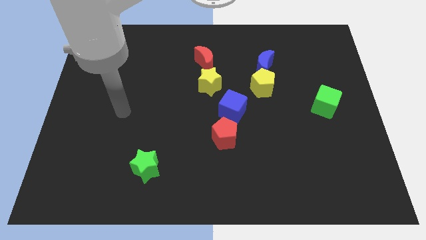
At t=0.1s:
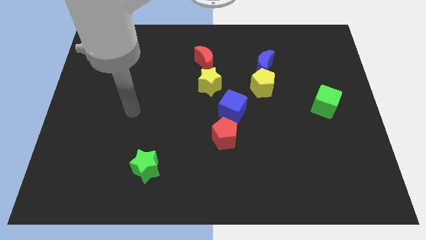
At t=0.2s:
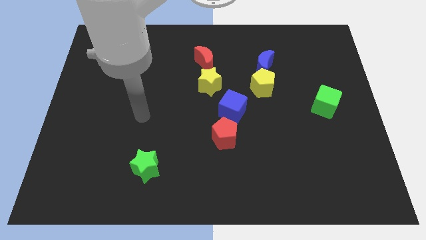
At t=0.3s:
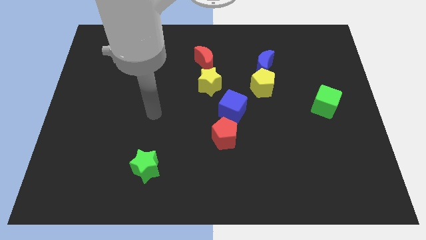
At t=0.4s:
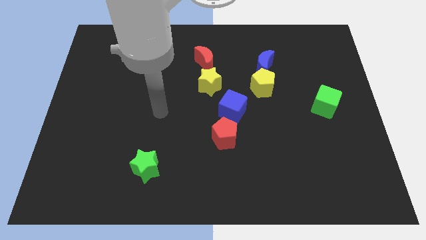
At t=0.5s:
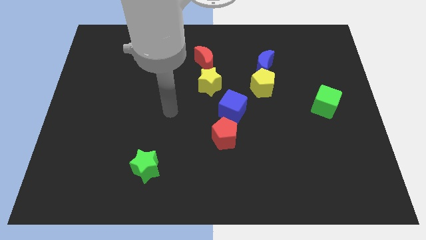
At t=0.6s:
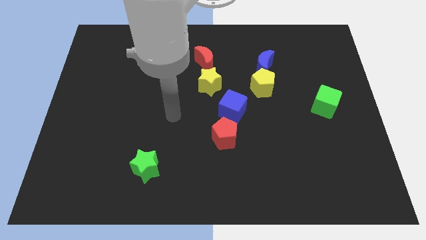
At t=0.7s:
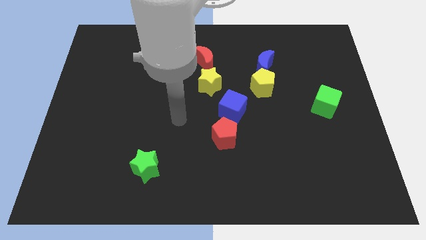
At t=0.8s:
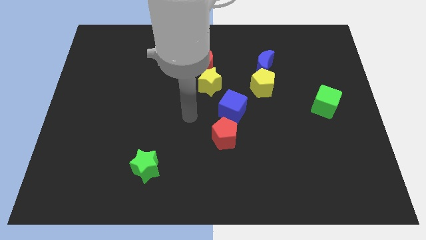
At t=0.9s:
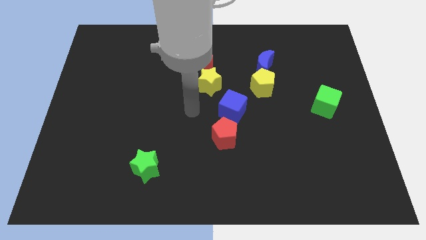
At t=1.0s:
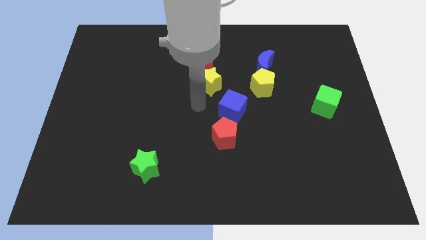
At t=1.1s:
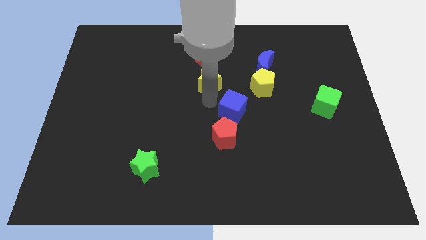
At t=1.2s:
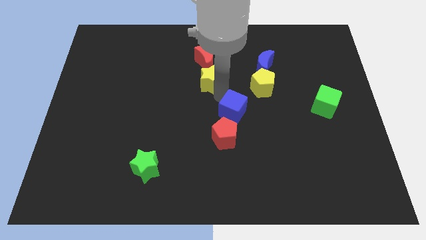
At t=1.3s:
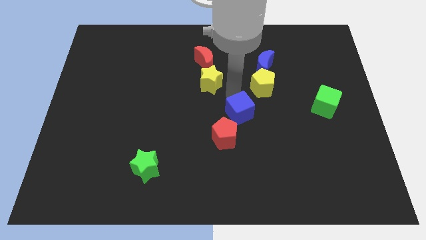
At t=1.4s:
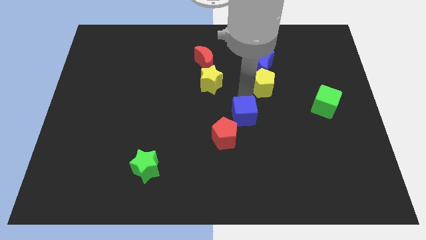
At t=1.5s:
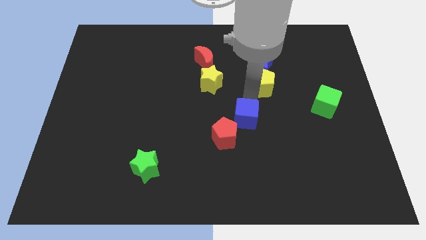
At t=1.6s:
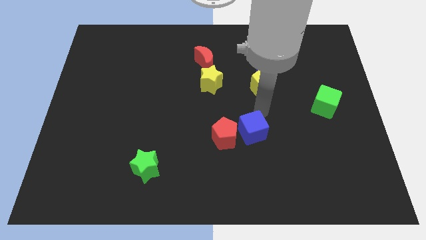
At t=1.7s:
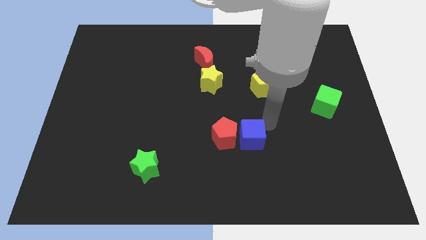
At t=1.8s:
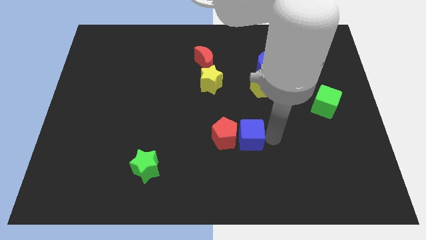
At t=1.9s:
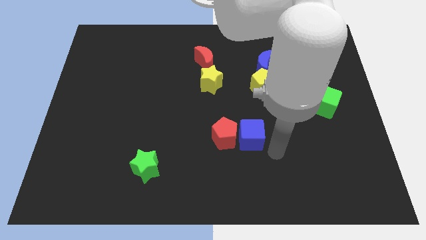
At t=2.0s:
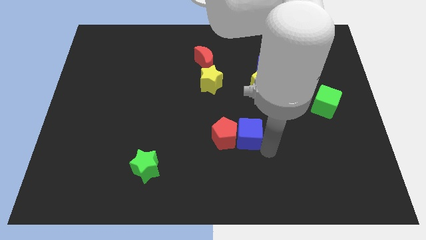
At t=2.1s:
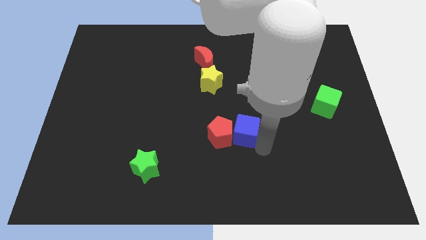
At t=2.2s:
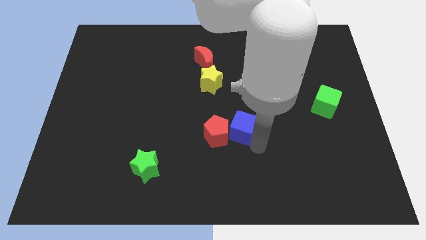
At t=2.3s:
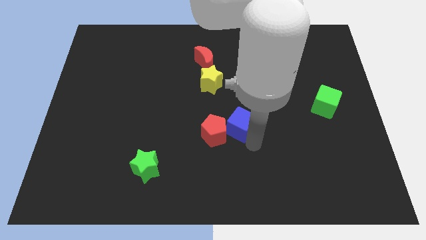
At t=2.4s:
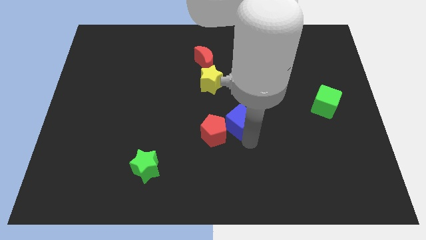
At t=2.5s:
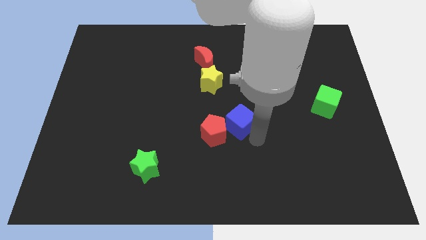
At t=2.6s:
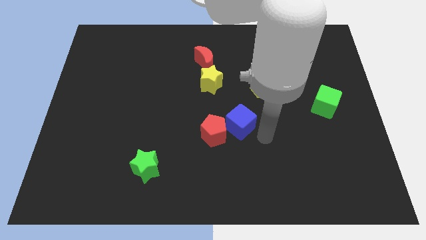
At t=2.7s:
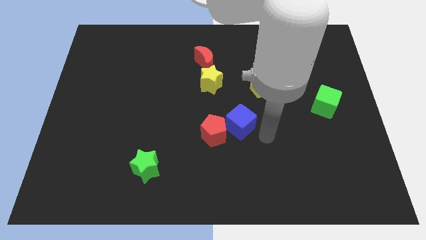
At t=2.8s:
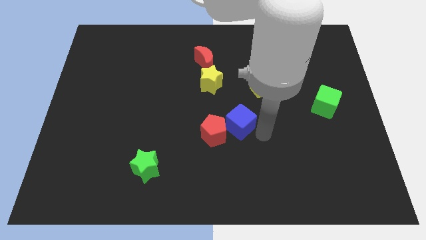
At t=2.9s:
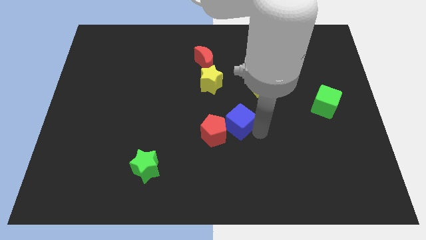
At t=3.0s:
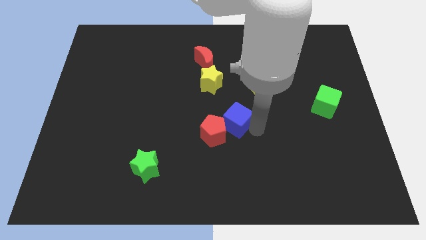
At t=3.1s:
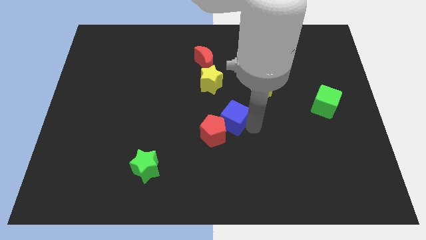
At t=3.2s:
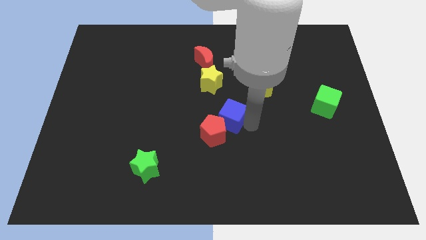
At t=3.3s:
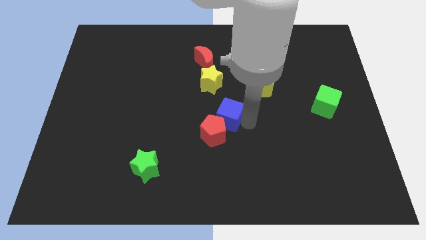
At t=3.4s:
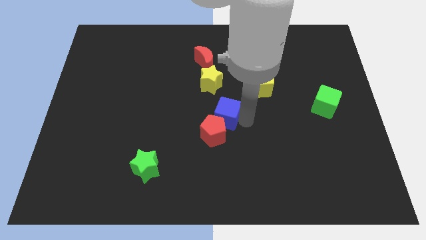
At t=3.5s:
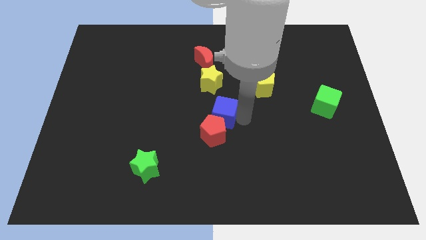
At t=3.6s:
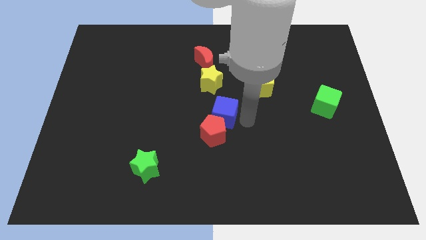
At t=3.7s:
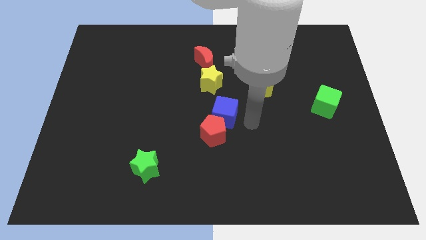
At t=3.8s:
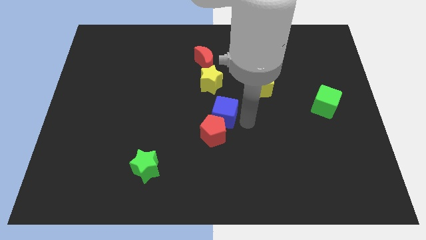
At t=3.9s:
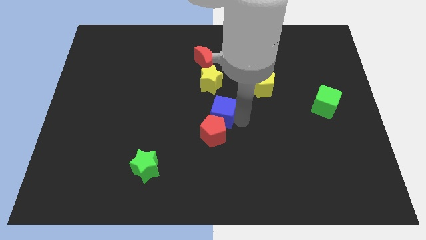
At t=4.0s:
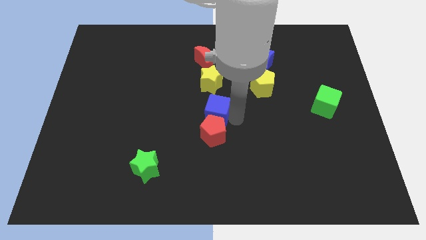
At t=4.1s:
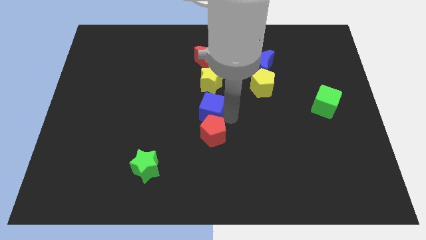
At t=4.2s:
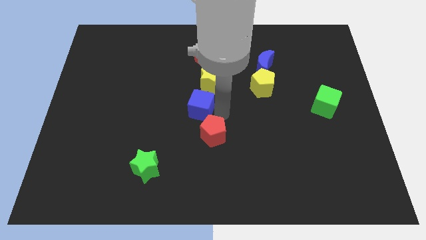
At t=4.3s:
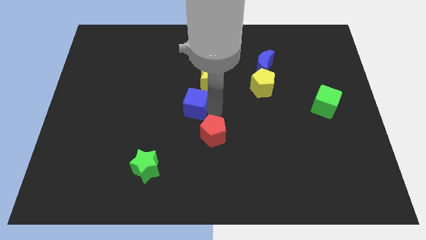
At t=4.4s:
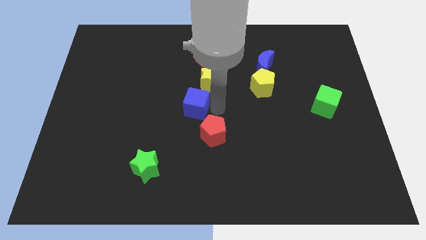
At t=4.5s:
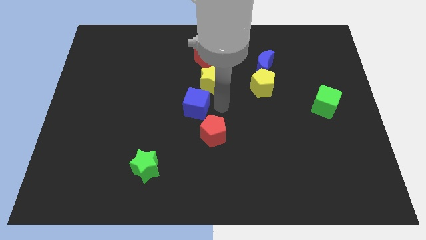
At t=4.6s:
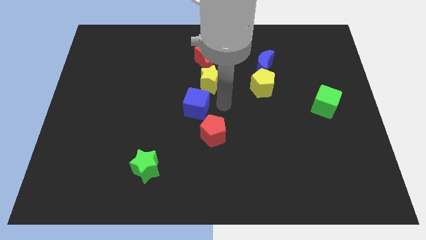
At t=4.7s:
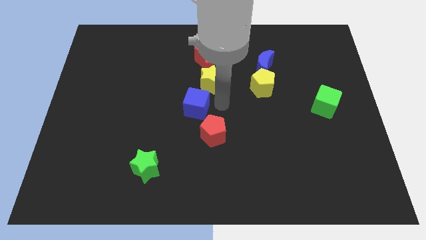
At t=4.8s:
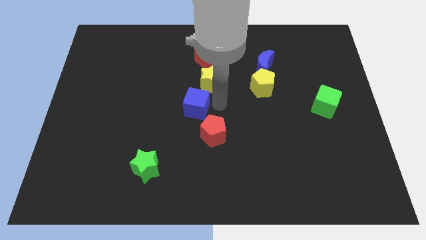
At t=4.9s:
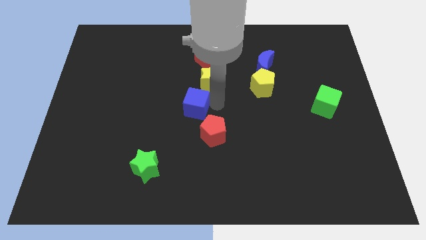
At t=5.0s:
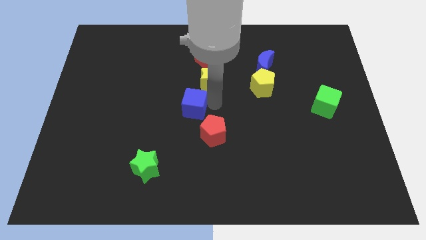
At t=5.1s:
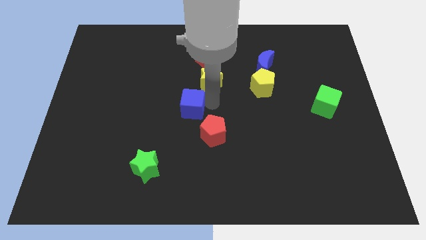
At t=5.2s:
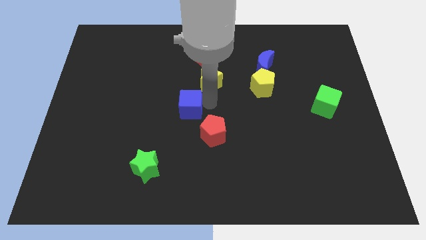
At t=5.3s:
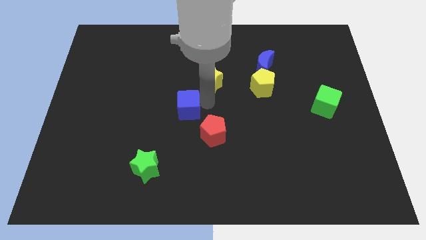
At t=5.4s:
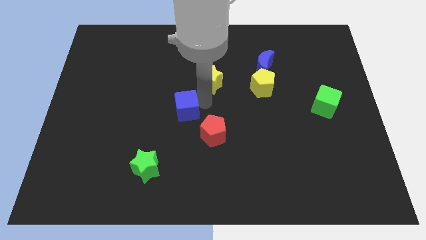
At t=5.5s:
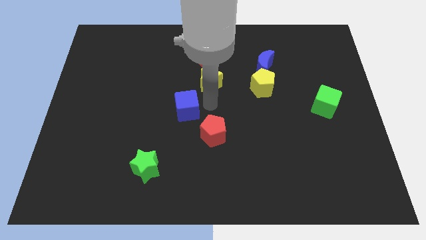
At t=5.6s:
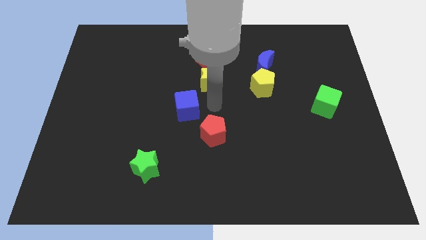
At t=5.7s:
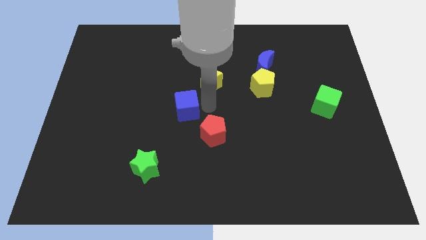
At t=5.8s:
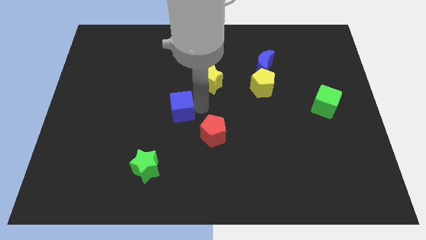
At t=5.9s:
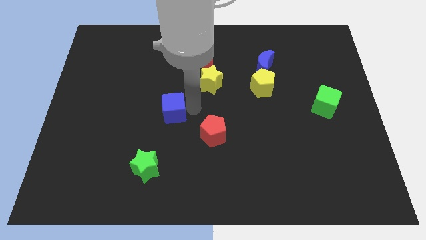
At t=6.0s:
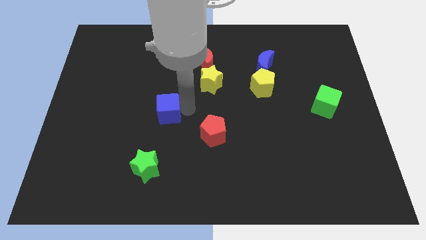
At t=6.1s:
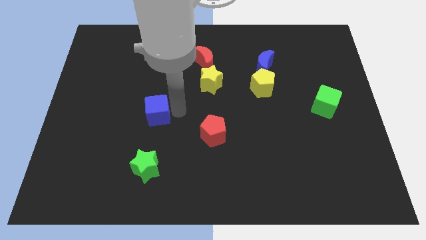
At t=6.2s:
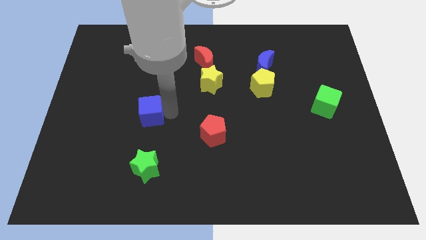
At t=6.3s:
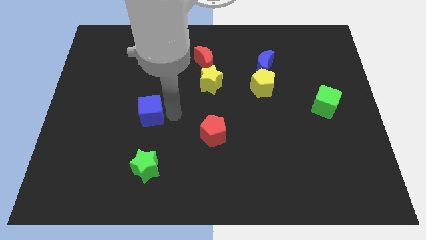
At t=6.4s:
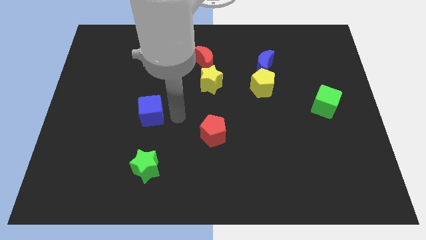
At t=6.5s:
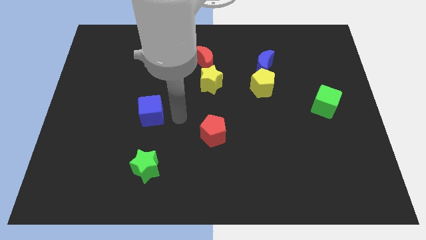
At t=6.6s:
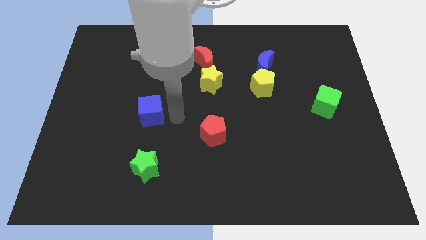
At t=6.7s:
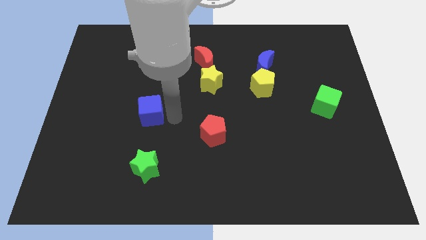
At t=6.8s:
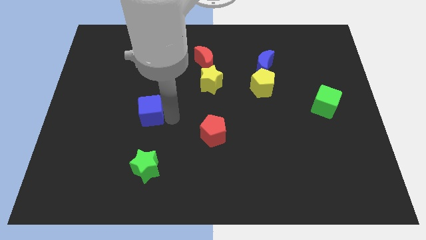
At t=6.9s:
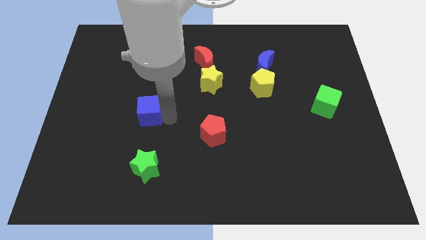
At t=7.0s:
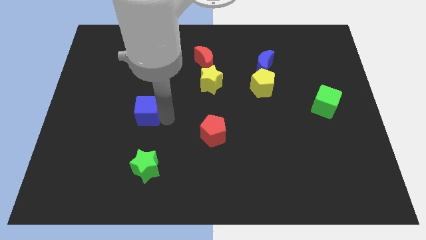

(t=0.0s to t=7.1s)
move the blue cube to the left

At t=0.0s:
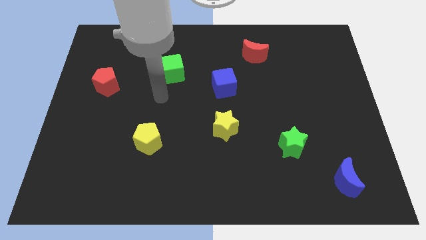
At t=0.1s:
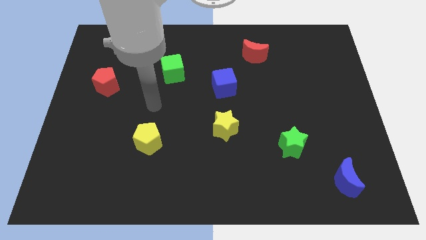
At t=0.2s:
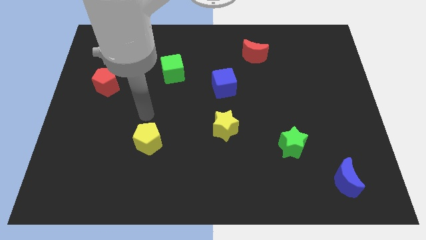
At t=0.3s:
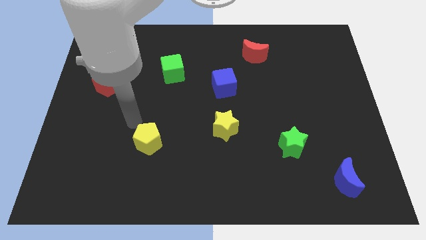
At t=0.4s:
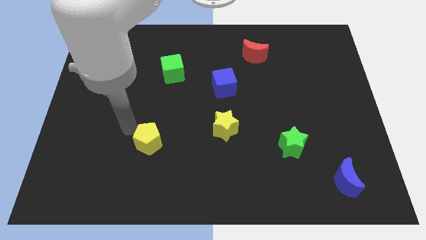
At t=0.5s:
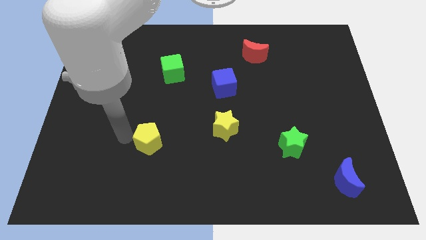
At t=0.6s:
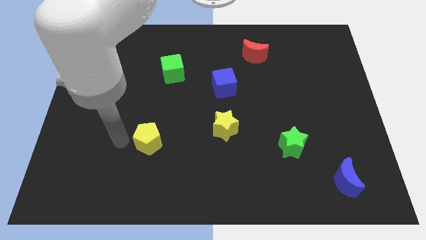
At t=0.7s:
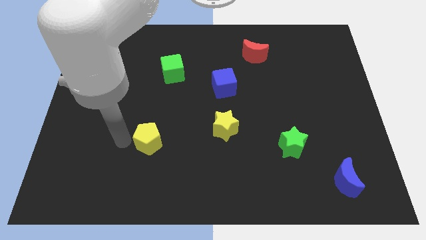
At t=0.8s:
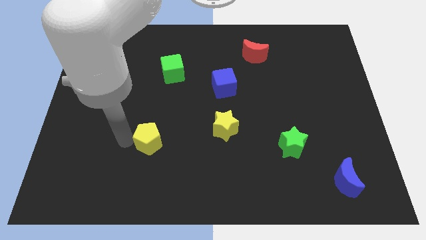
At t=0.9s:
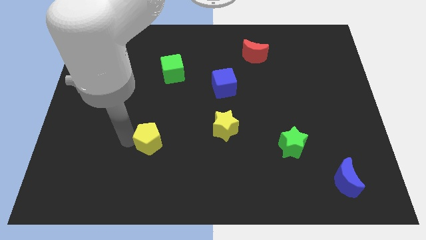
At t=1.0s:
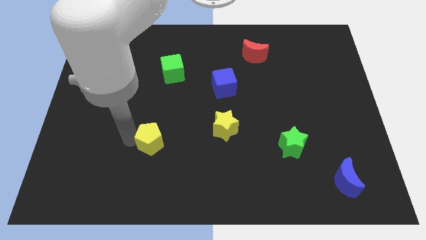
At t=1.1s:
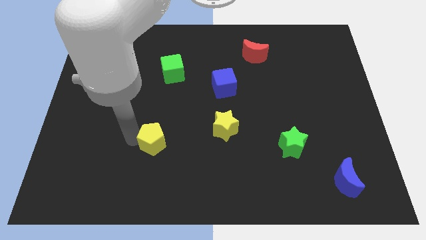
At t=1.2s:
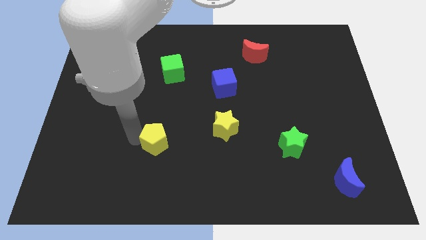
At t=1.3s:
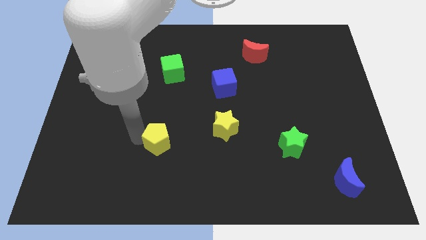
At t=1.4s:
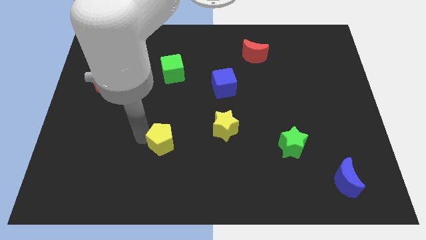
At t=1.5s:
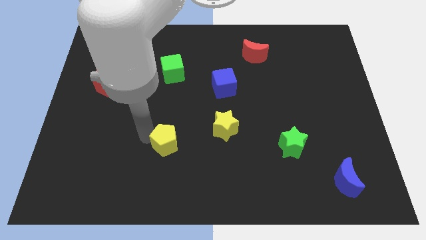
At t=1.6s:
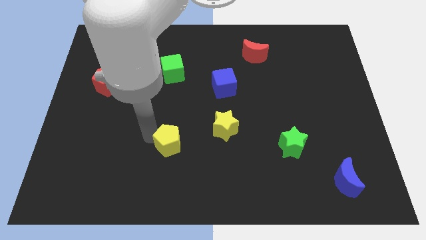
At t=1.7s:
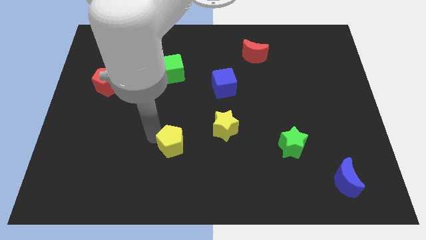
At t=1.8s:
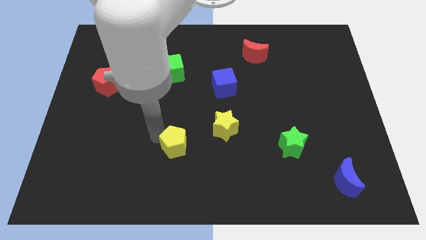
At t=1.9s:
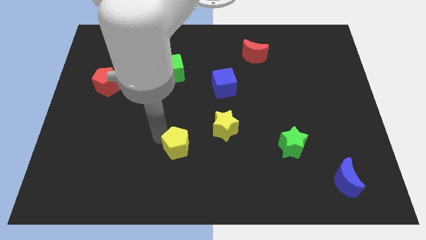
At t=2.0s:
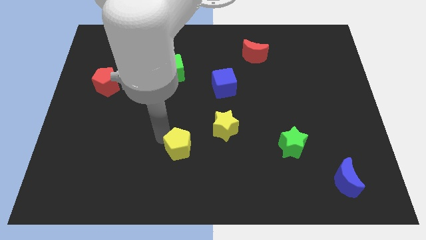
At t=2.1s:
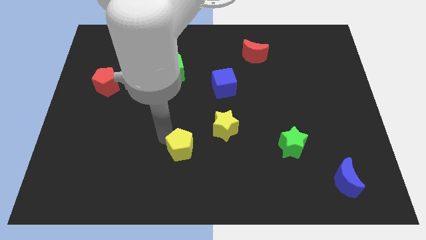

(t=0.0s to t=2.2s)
slightly slide the yellow pentagon to the right
